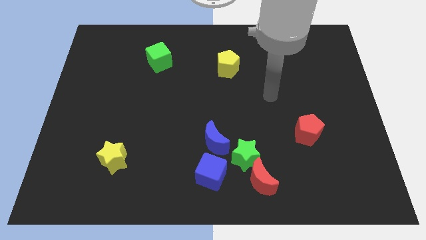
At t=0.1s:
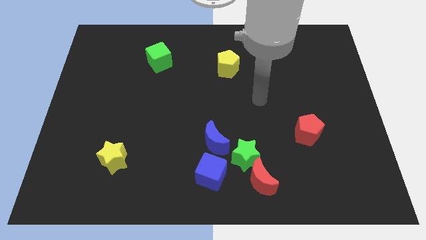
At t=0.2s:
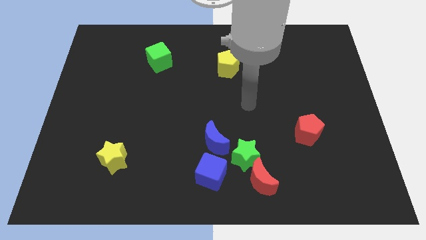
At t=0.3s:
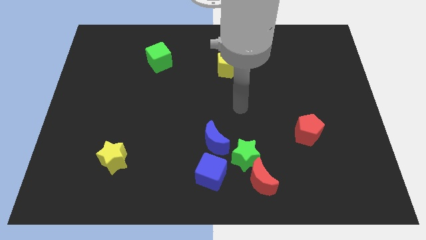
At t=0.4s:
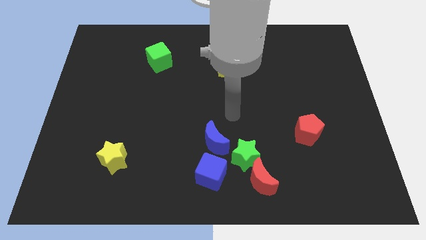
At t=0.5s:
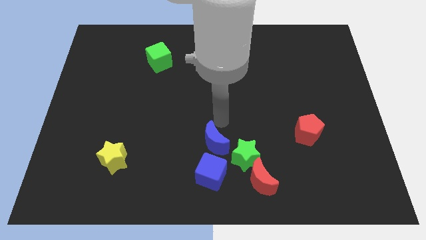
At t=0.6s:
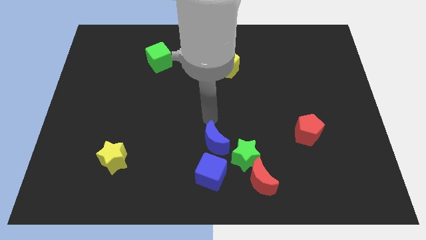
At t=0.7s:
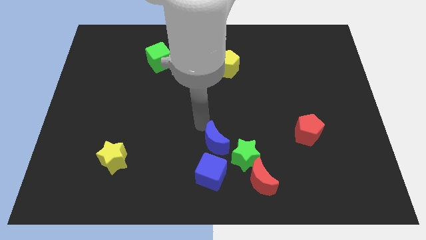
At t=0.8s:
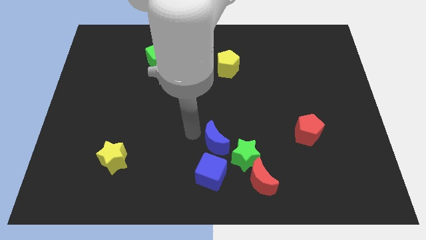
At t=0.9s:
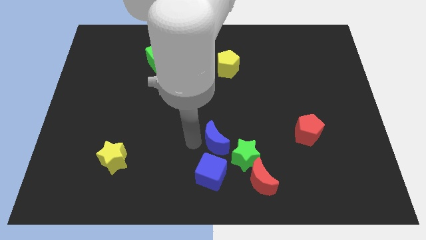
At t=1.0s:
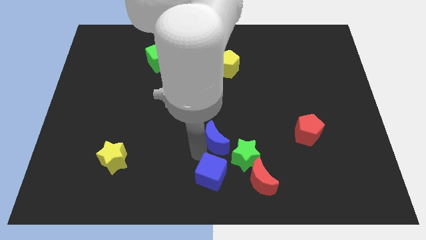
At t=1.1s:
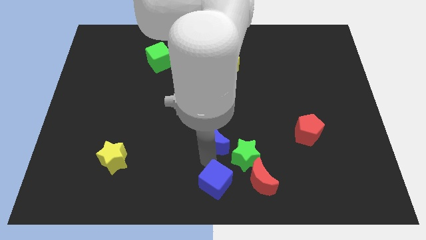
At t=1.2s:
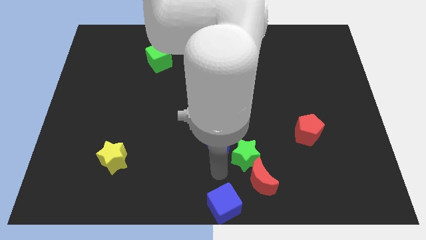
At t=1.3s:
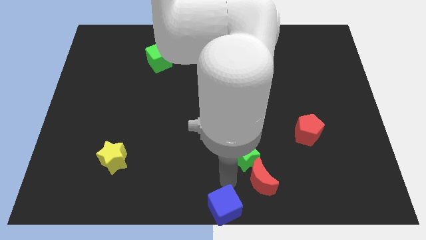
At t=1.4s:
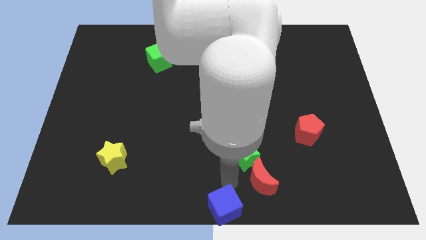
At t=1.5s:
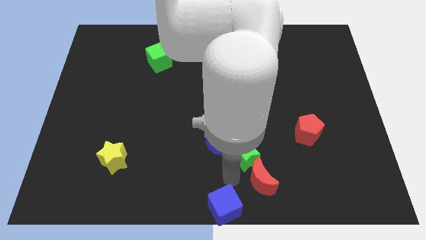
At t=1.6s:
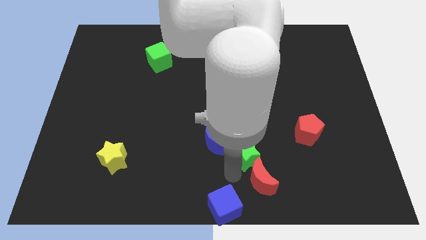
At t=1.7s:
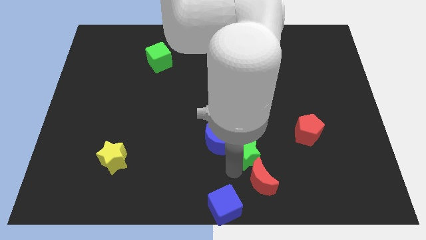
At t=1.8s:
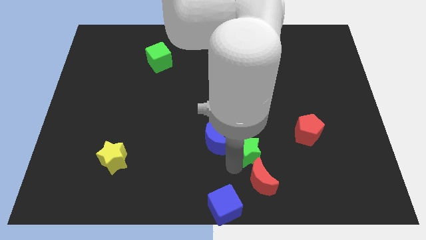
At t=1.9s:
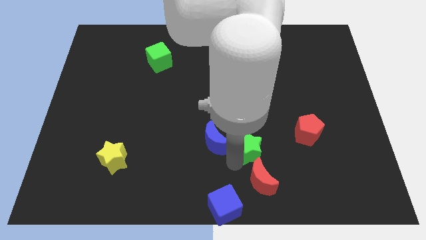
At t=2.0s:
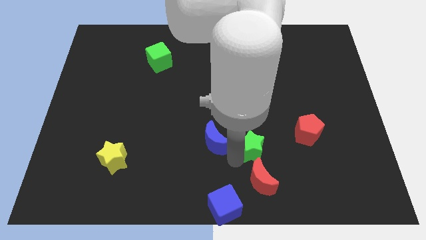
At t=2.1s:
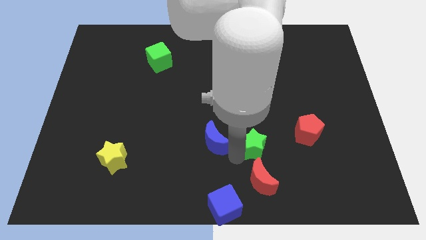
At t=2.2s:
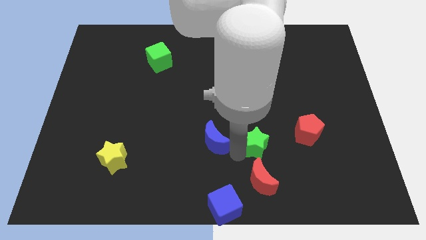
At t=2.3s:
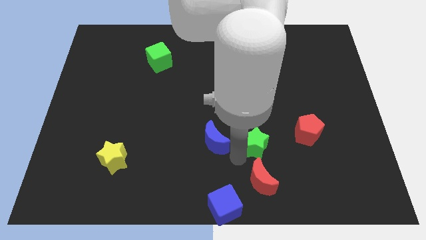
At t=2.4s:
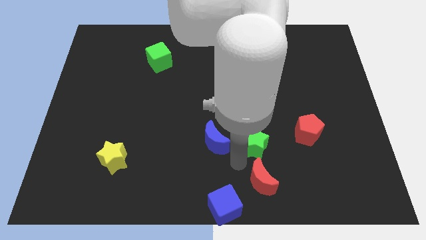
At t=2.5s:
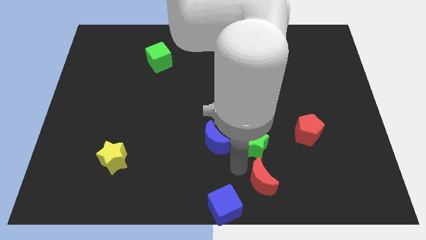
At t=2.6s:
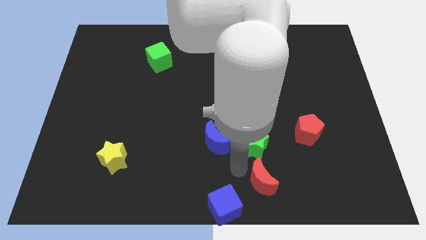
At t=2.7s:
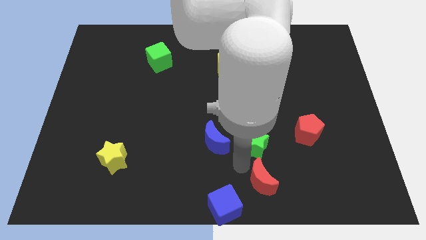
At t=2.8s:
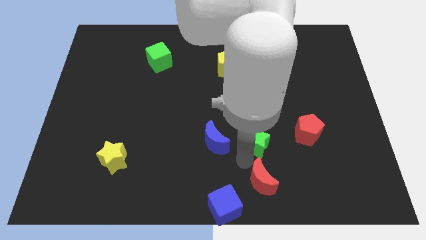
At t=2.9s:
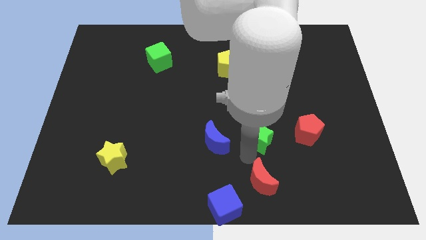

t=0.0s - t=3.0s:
pull the green star apart from the group of blocks

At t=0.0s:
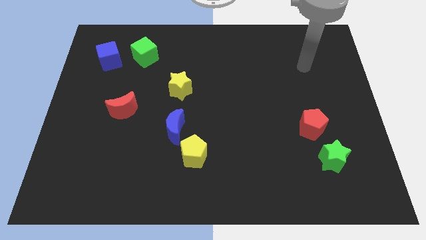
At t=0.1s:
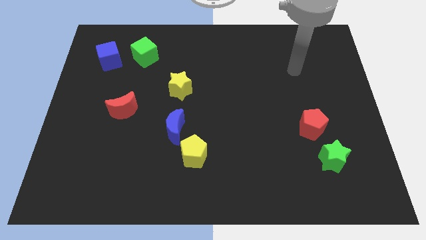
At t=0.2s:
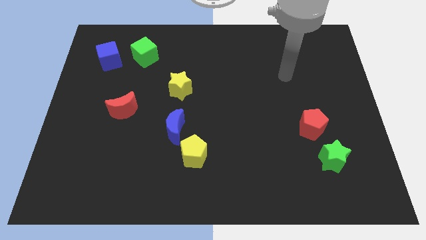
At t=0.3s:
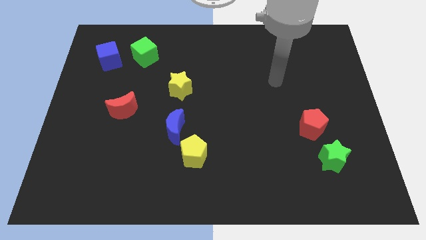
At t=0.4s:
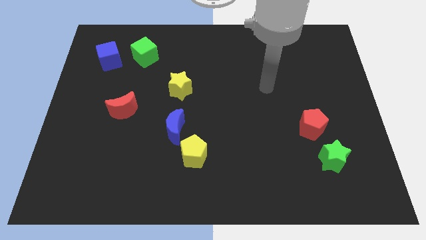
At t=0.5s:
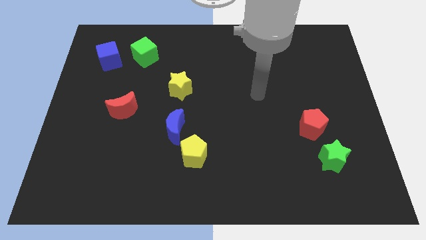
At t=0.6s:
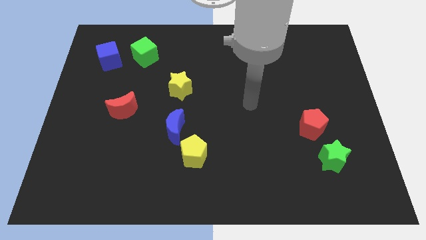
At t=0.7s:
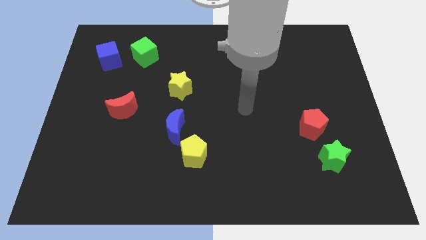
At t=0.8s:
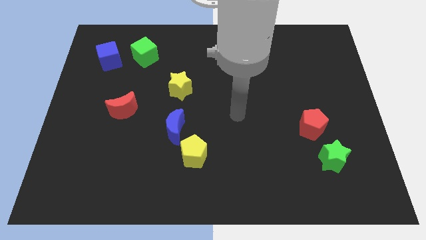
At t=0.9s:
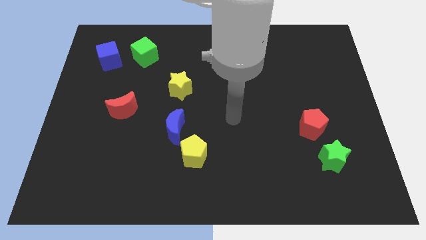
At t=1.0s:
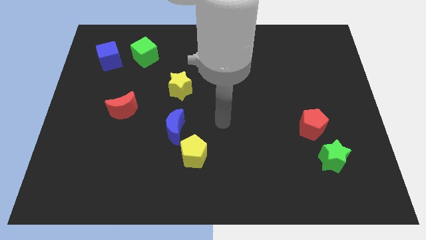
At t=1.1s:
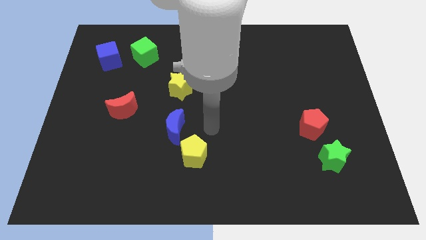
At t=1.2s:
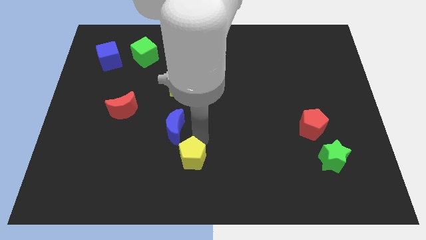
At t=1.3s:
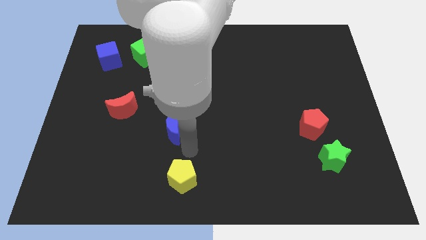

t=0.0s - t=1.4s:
move the blue moon away from the yellow pentagon

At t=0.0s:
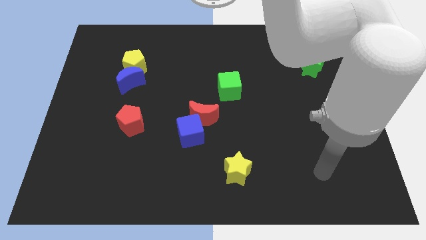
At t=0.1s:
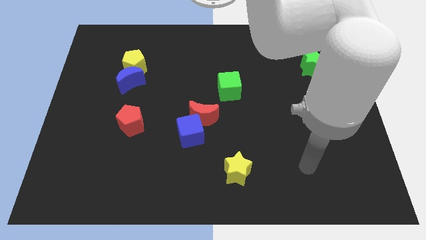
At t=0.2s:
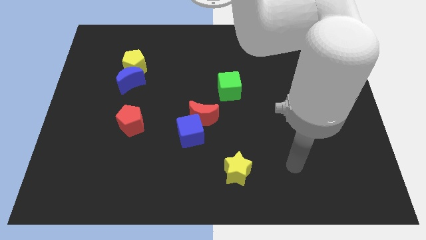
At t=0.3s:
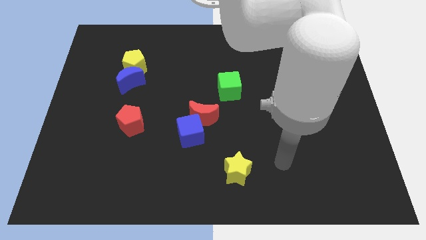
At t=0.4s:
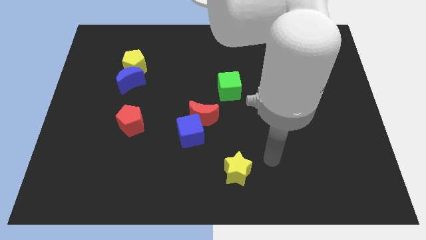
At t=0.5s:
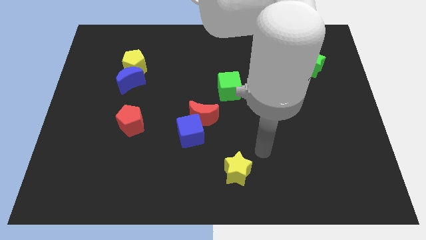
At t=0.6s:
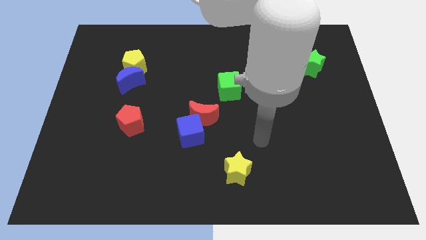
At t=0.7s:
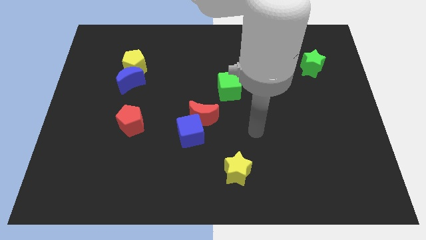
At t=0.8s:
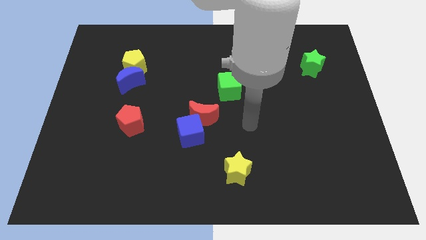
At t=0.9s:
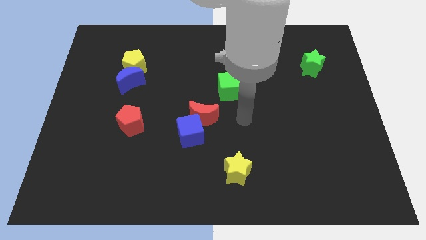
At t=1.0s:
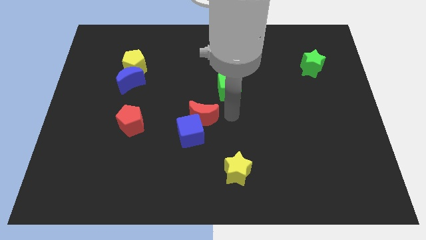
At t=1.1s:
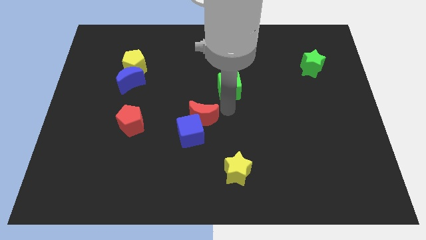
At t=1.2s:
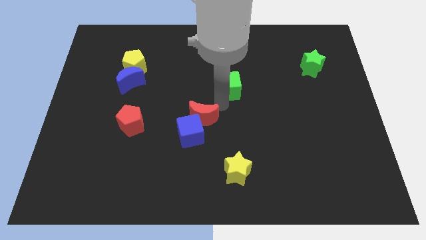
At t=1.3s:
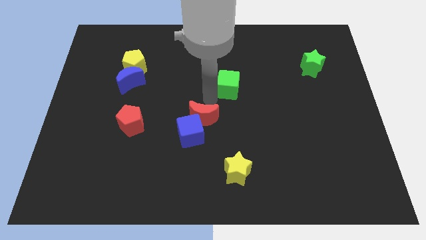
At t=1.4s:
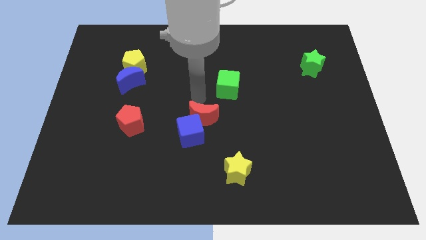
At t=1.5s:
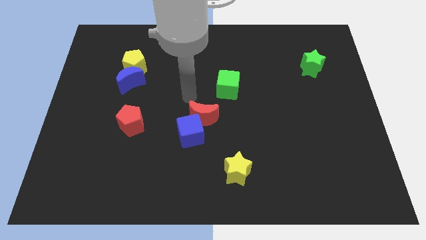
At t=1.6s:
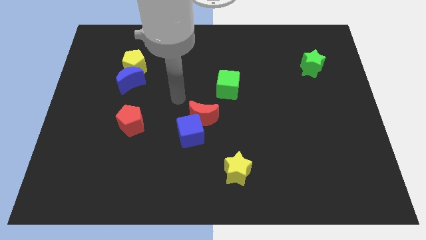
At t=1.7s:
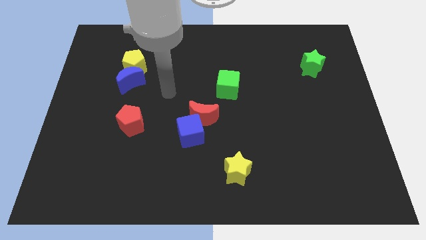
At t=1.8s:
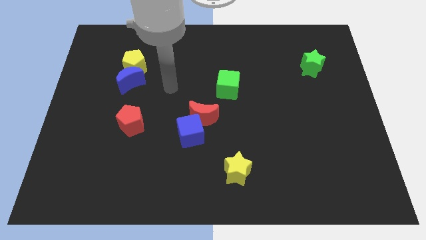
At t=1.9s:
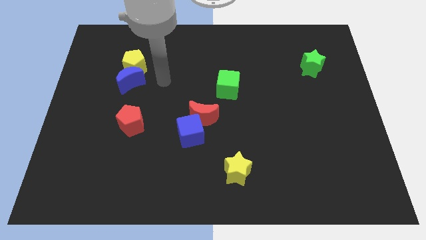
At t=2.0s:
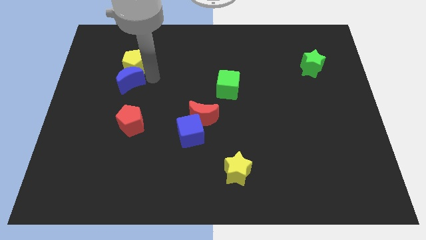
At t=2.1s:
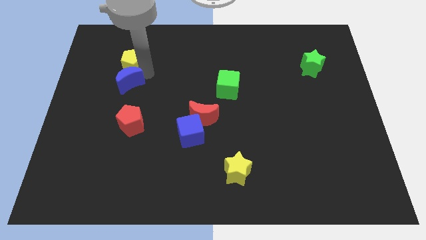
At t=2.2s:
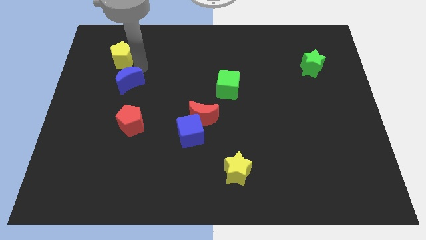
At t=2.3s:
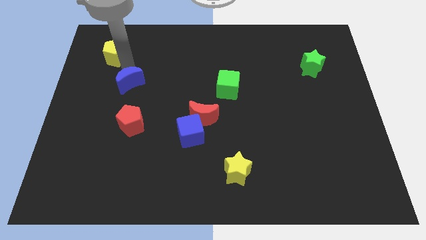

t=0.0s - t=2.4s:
pull the blue moon apart from the yellow pentagon

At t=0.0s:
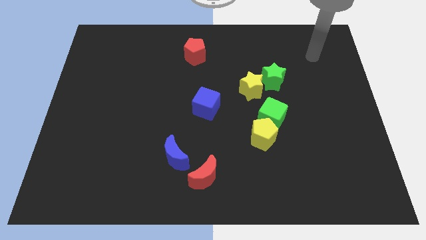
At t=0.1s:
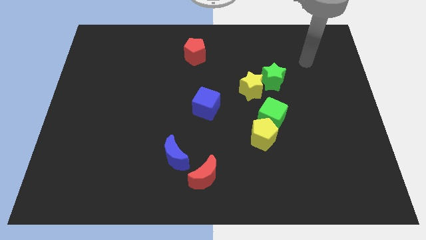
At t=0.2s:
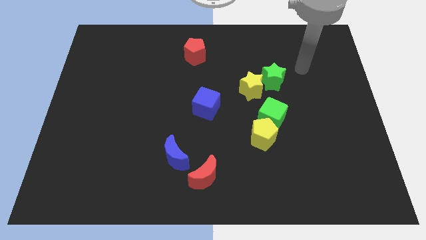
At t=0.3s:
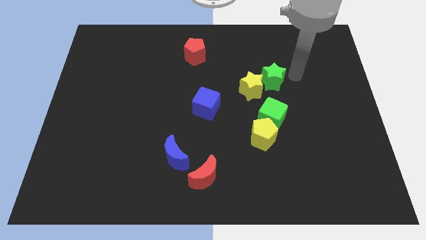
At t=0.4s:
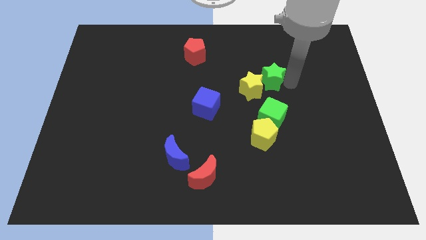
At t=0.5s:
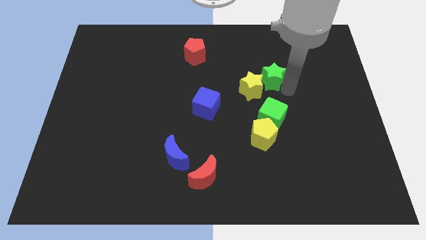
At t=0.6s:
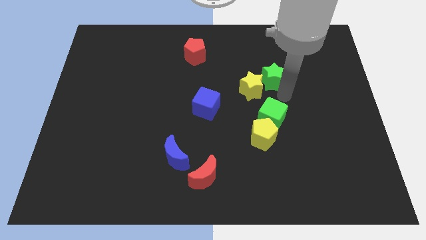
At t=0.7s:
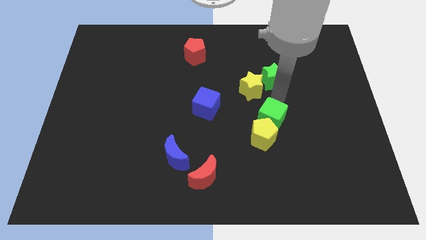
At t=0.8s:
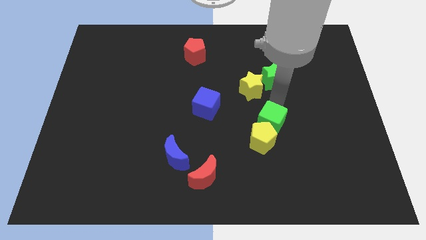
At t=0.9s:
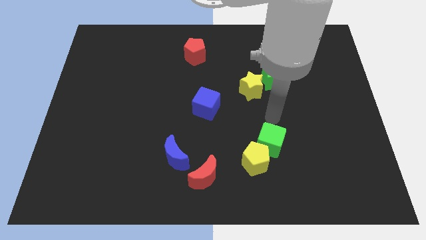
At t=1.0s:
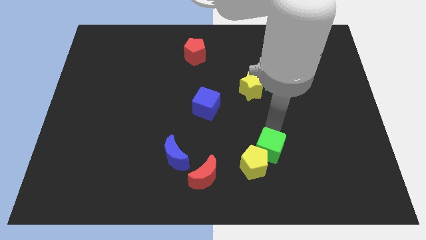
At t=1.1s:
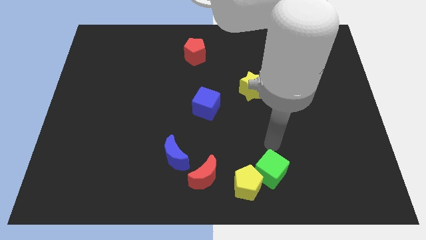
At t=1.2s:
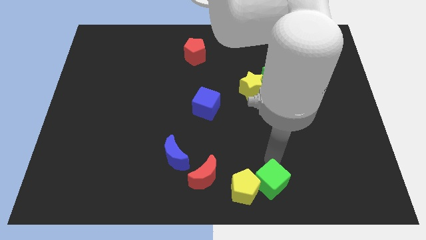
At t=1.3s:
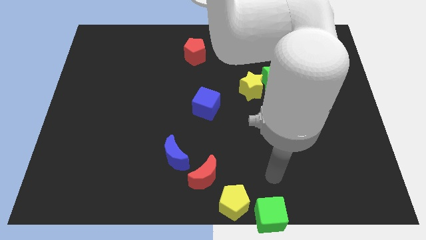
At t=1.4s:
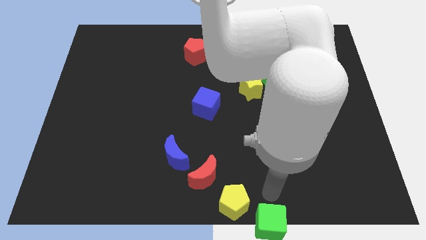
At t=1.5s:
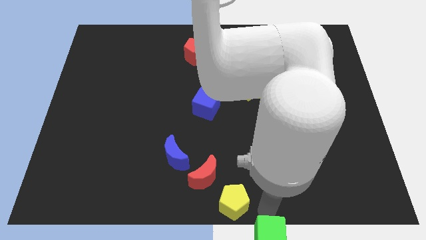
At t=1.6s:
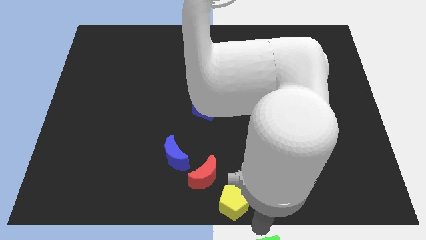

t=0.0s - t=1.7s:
pull the yellow pentagon apart from the green cube

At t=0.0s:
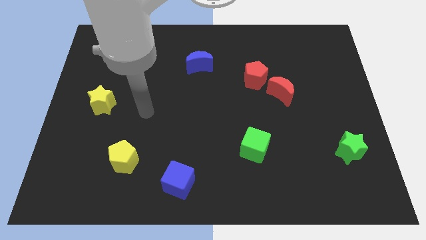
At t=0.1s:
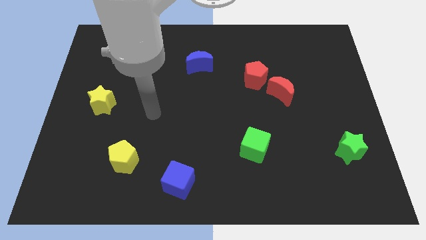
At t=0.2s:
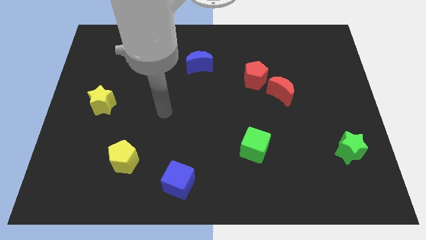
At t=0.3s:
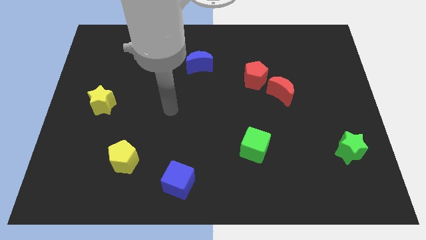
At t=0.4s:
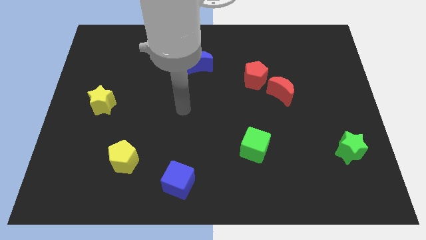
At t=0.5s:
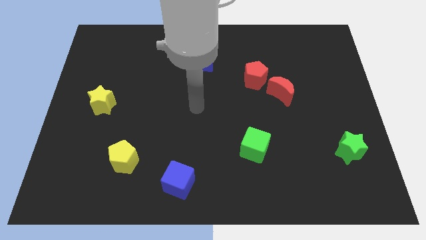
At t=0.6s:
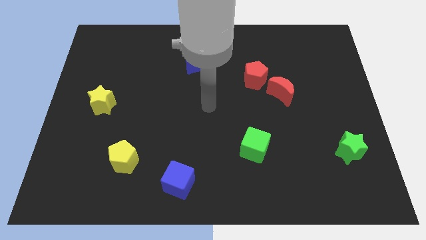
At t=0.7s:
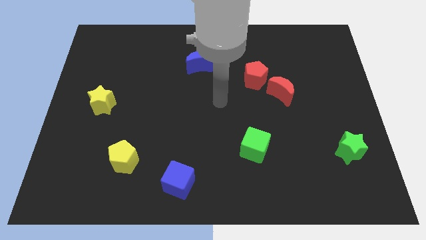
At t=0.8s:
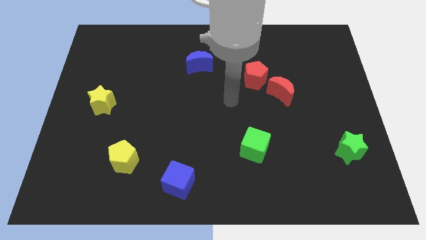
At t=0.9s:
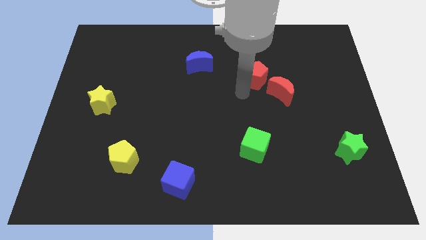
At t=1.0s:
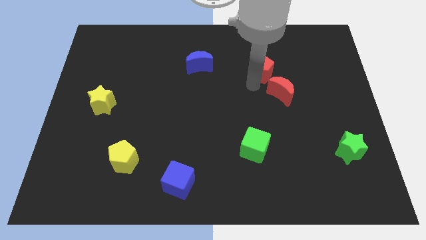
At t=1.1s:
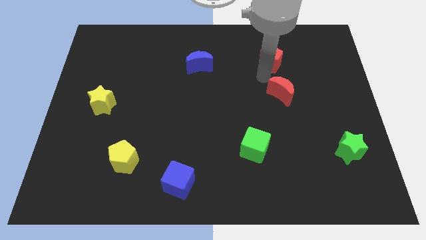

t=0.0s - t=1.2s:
move the red moon away from the red pentagon
